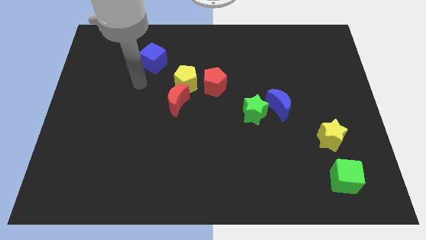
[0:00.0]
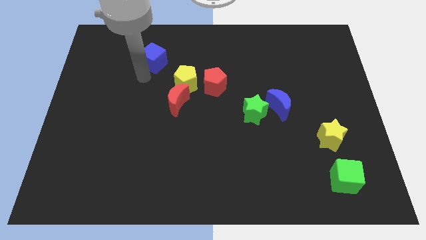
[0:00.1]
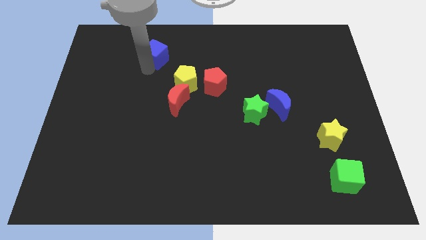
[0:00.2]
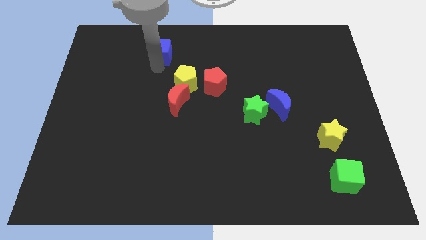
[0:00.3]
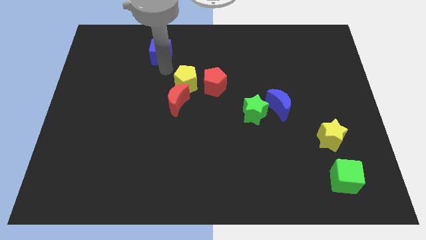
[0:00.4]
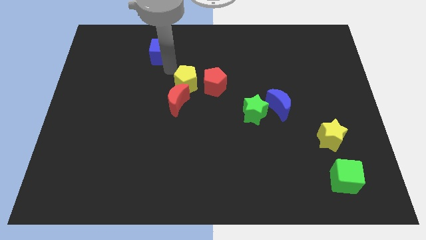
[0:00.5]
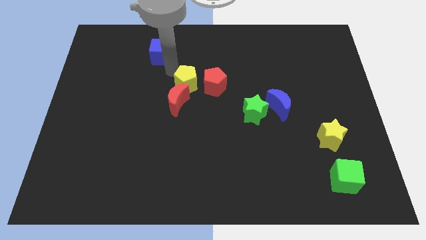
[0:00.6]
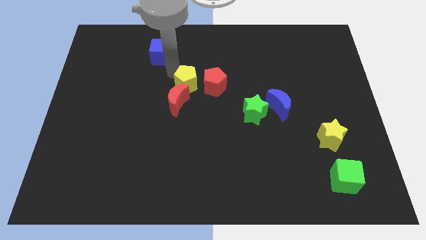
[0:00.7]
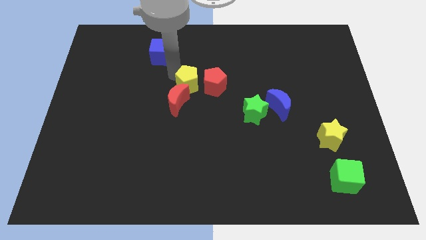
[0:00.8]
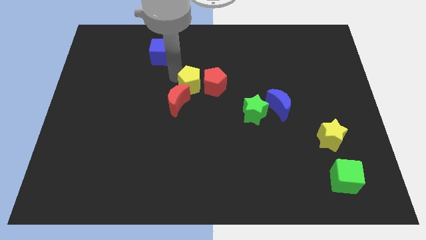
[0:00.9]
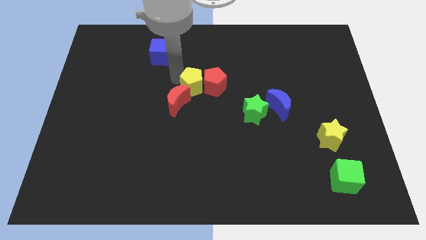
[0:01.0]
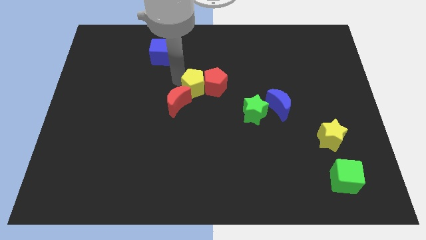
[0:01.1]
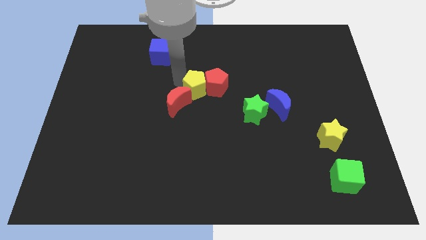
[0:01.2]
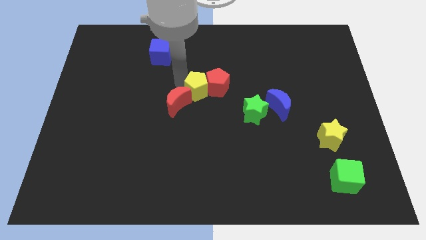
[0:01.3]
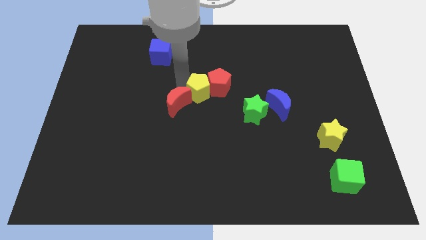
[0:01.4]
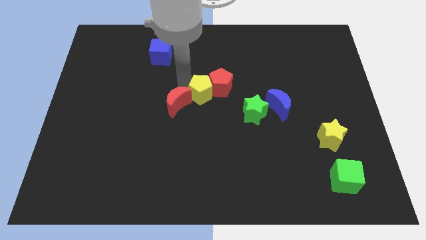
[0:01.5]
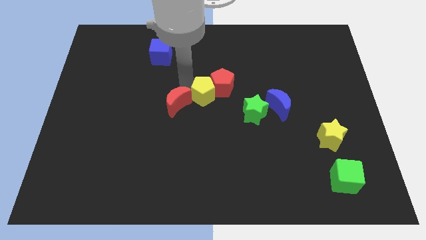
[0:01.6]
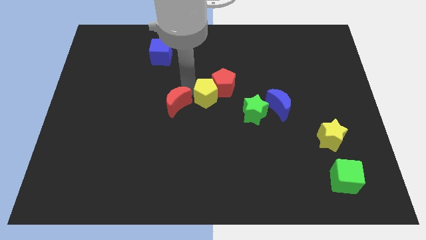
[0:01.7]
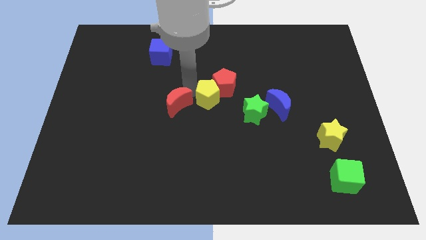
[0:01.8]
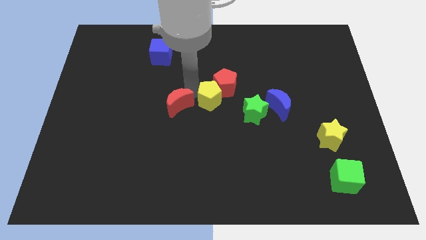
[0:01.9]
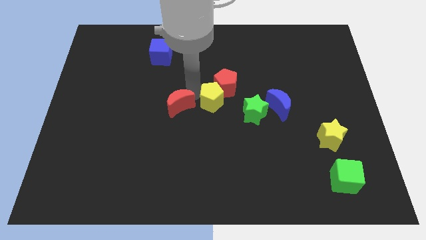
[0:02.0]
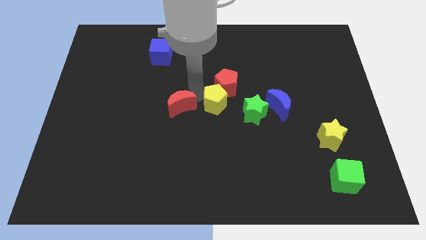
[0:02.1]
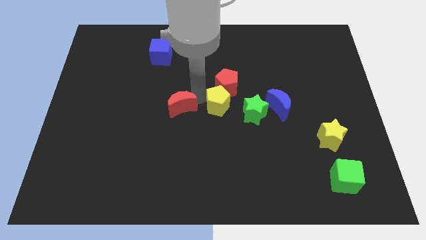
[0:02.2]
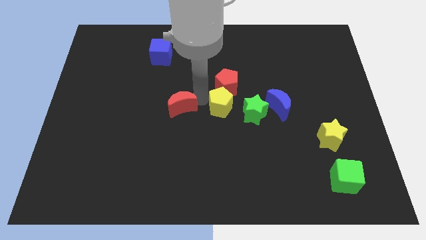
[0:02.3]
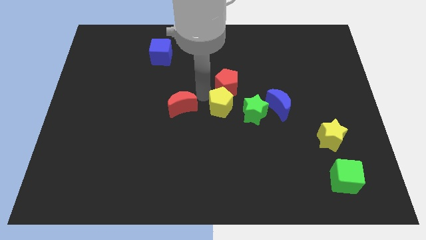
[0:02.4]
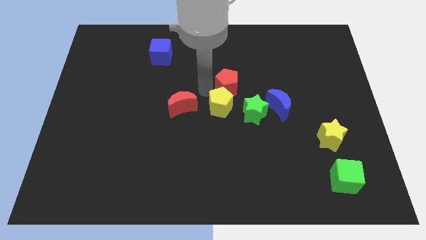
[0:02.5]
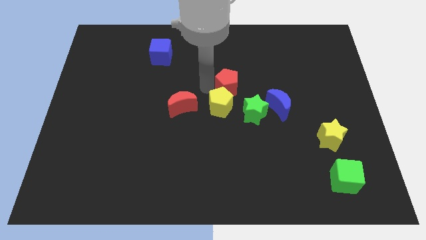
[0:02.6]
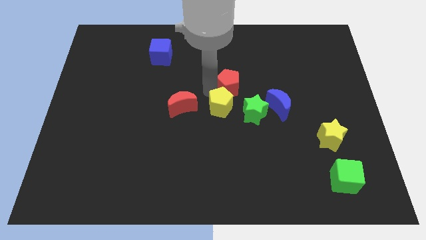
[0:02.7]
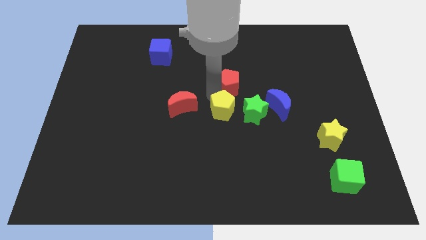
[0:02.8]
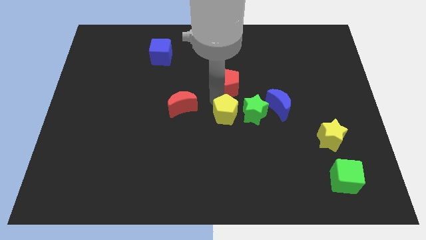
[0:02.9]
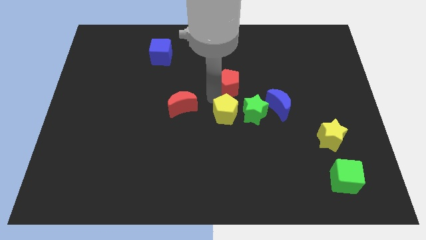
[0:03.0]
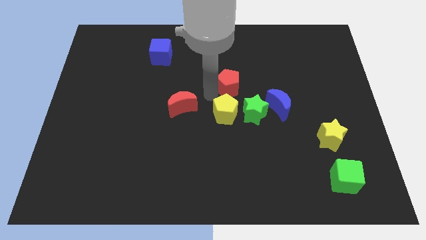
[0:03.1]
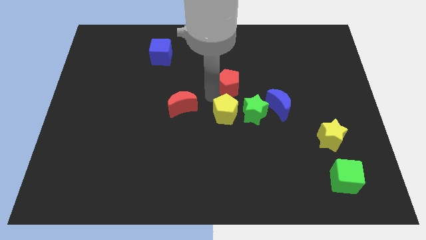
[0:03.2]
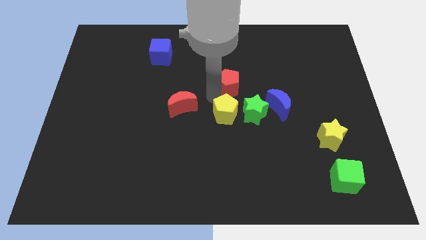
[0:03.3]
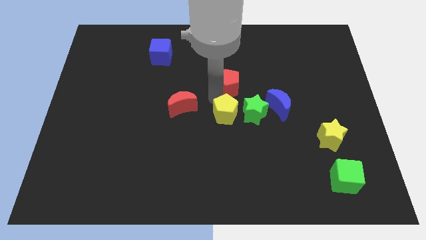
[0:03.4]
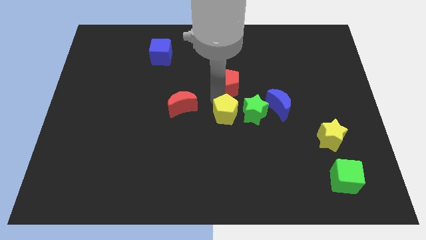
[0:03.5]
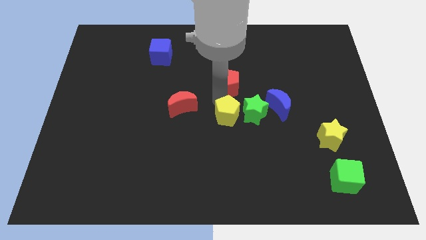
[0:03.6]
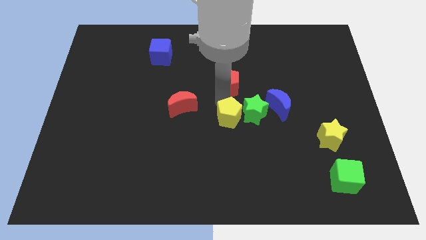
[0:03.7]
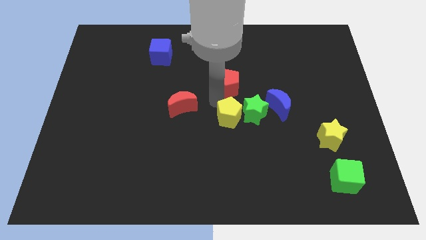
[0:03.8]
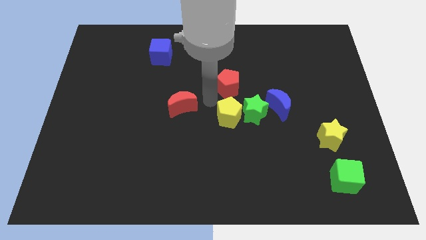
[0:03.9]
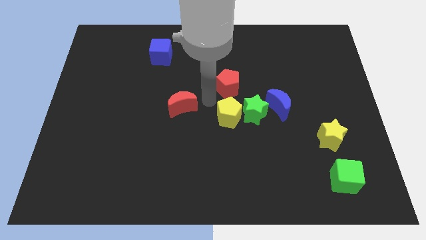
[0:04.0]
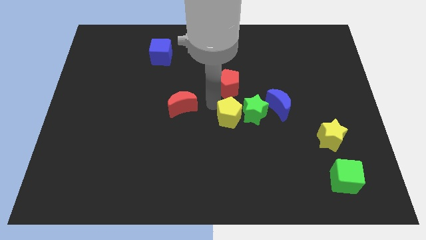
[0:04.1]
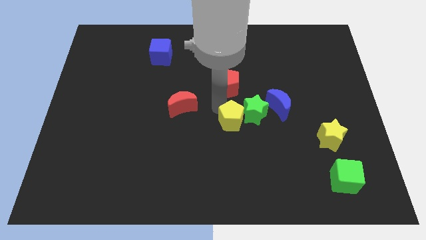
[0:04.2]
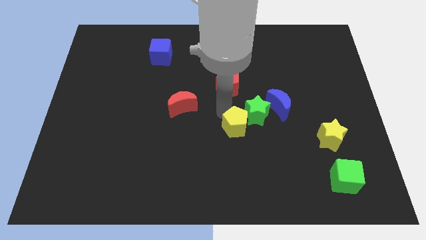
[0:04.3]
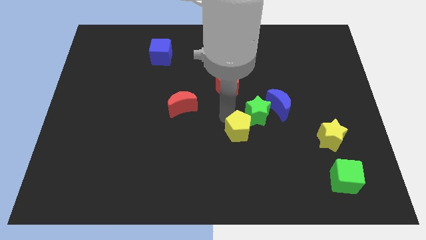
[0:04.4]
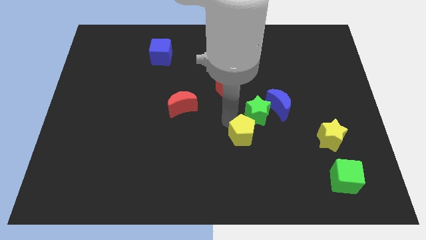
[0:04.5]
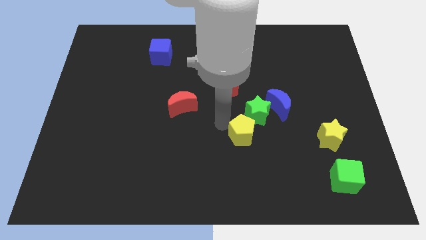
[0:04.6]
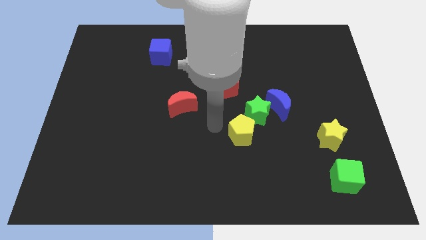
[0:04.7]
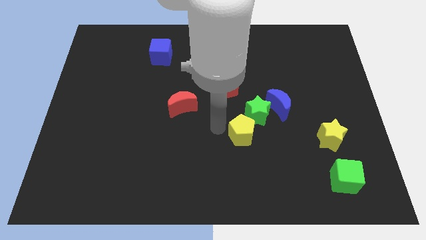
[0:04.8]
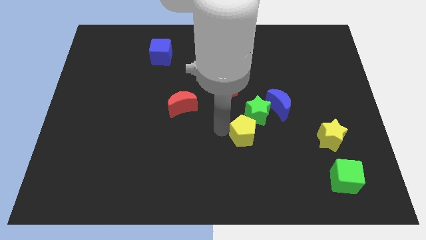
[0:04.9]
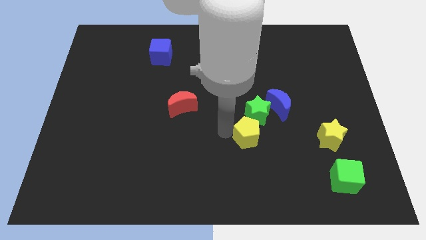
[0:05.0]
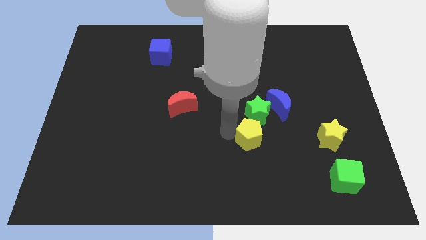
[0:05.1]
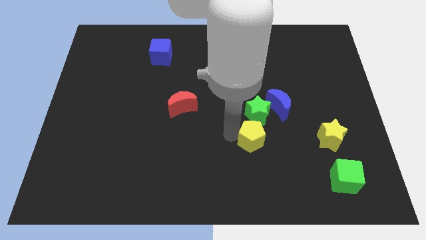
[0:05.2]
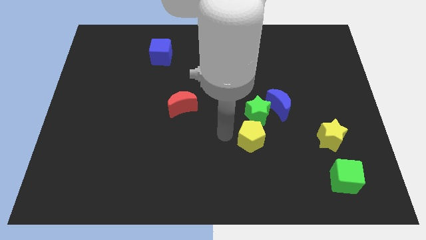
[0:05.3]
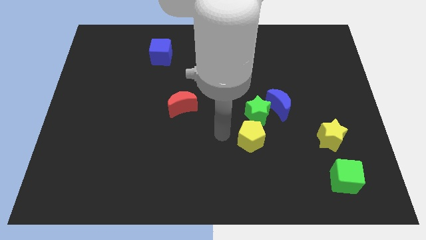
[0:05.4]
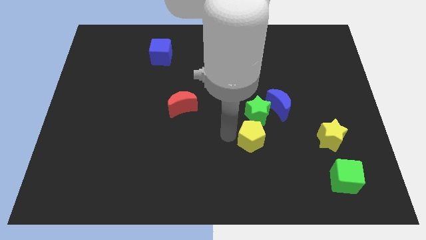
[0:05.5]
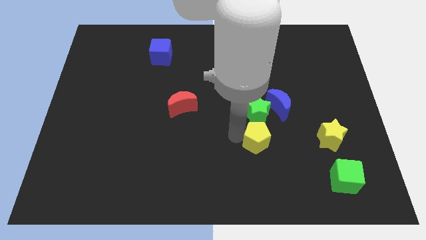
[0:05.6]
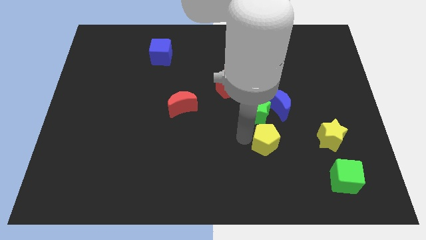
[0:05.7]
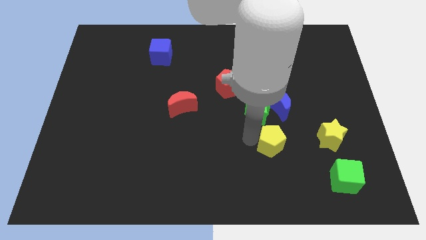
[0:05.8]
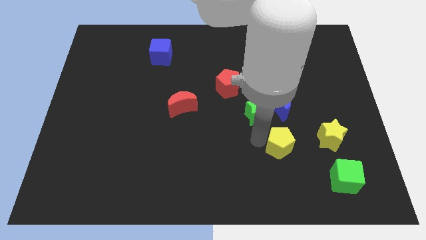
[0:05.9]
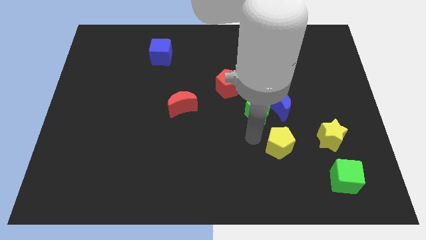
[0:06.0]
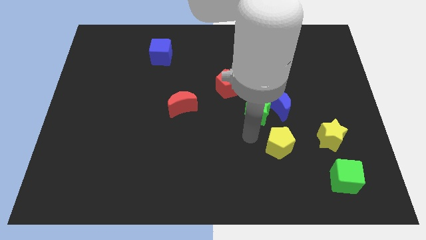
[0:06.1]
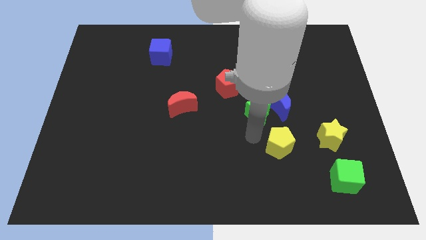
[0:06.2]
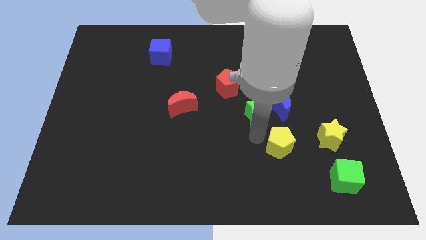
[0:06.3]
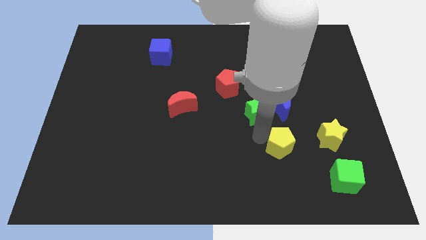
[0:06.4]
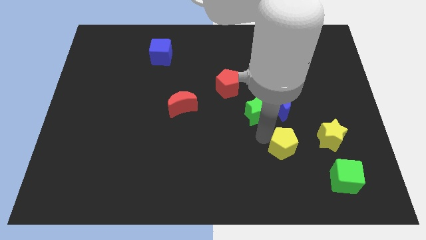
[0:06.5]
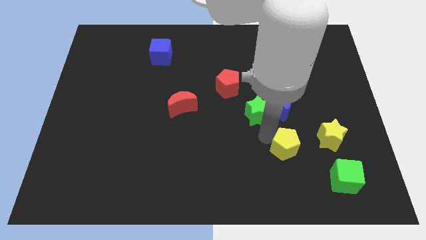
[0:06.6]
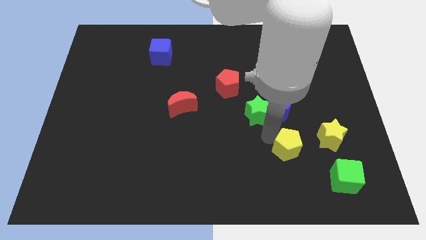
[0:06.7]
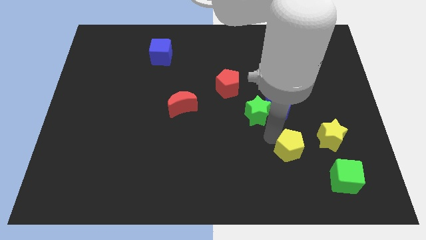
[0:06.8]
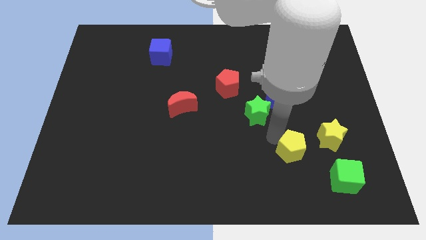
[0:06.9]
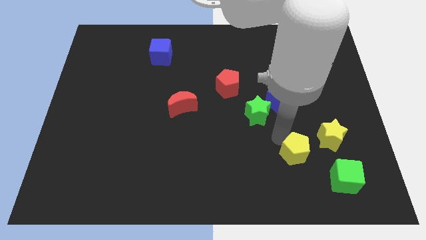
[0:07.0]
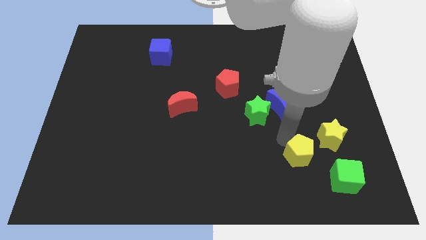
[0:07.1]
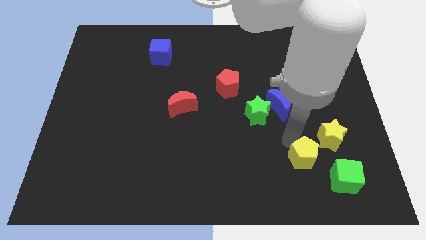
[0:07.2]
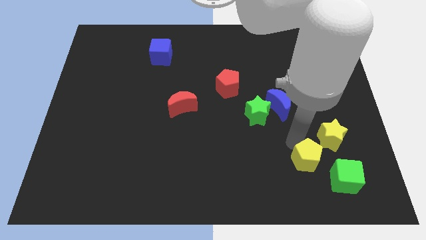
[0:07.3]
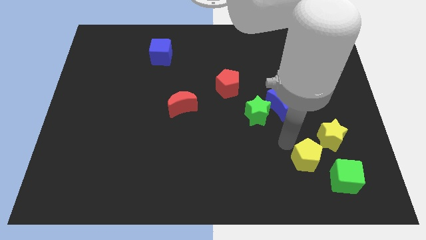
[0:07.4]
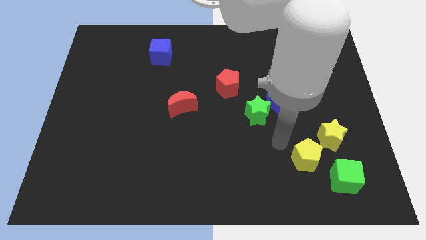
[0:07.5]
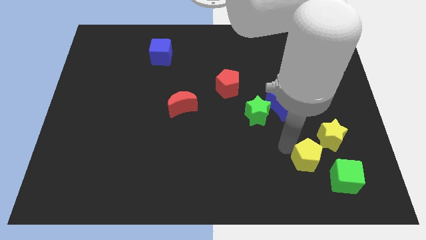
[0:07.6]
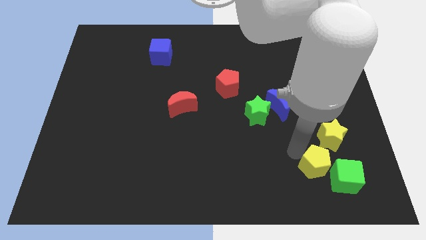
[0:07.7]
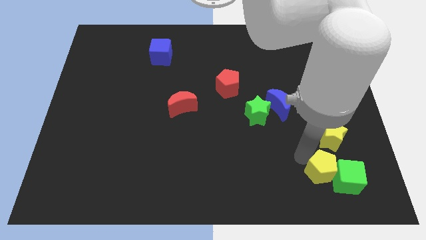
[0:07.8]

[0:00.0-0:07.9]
put the yellow pentagon towards the green cube
